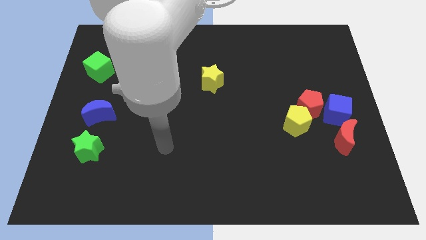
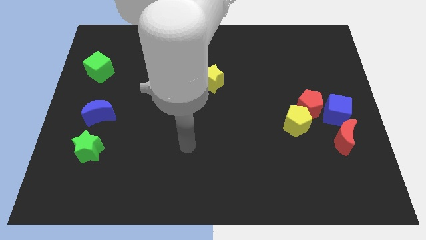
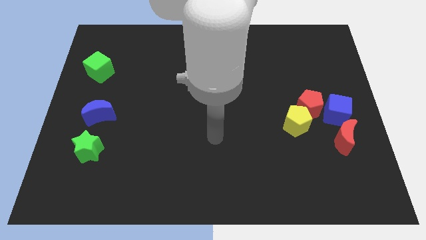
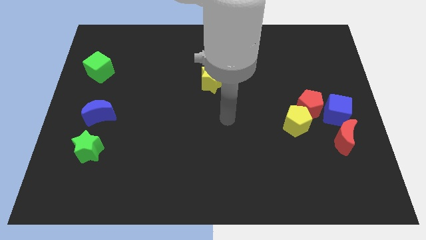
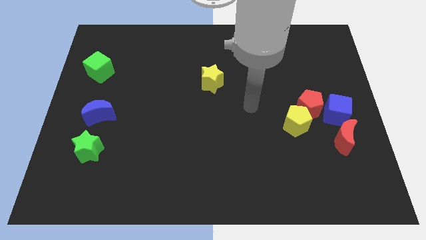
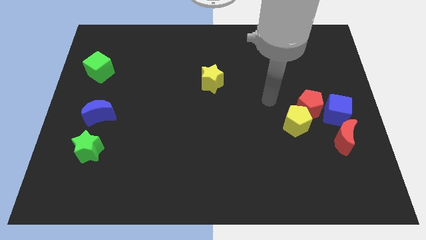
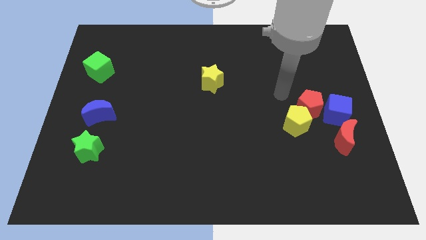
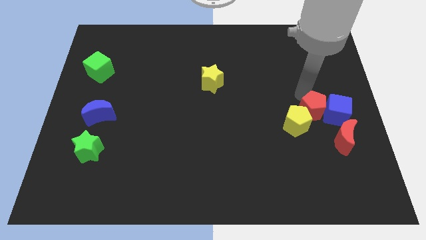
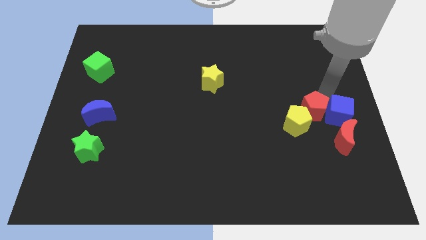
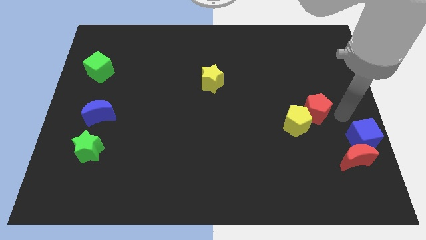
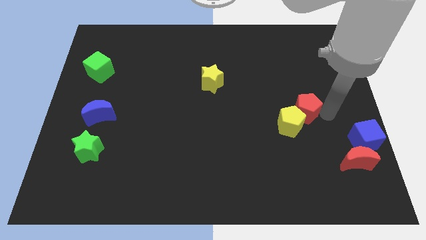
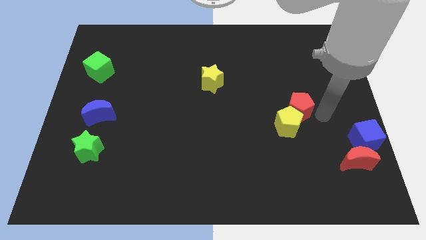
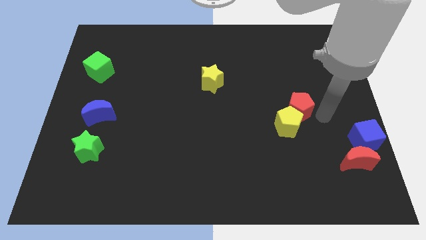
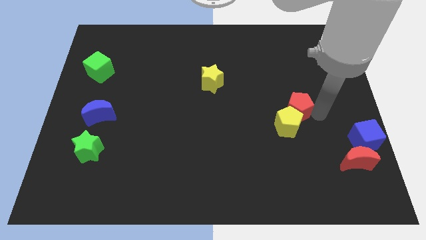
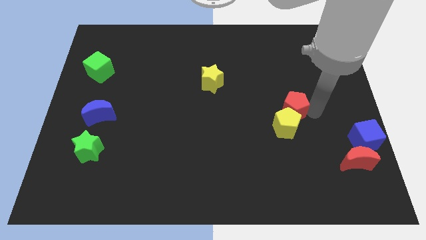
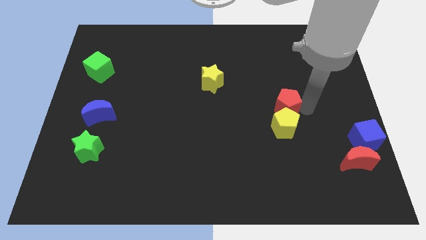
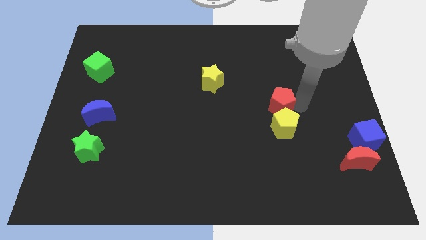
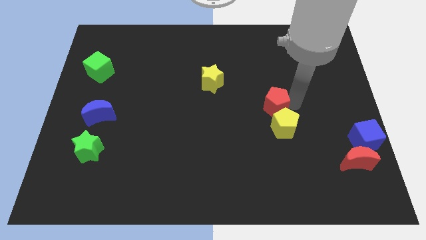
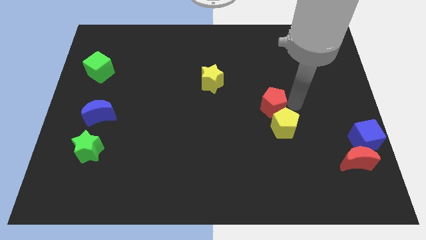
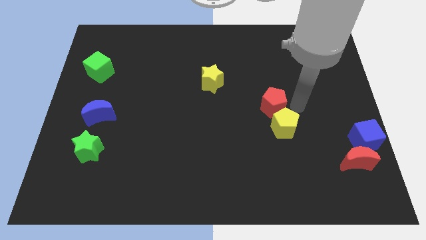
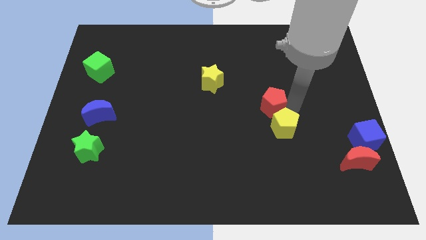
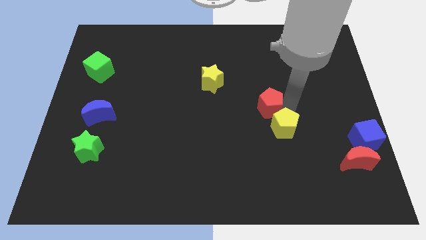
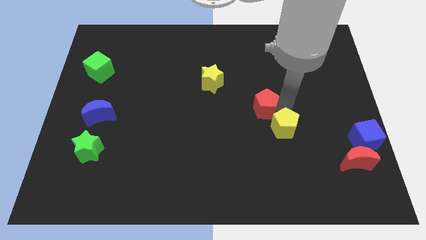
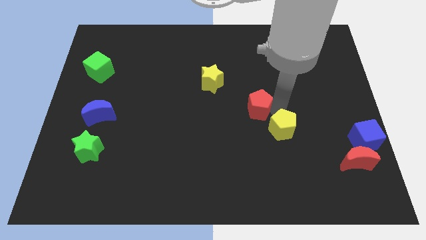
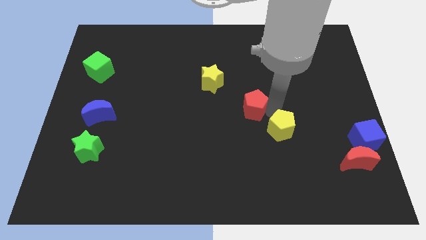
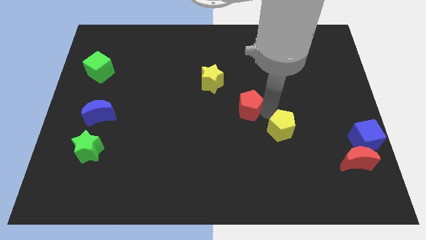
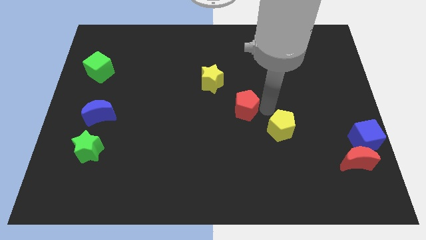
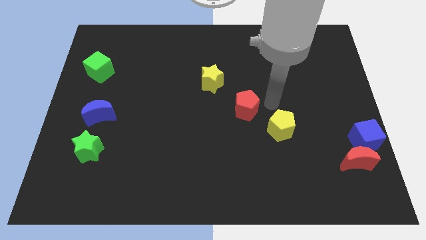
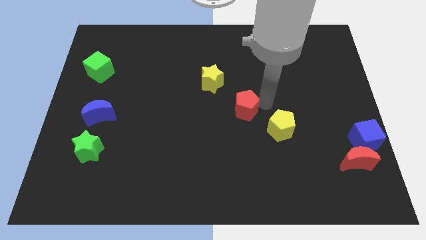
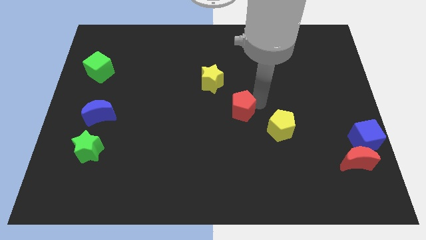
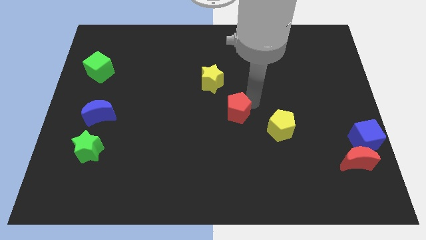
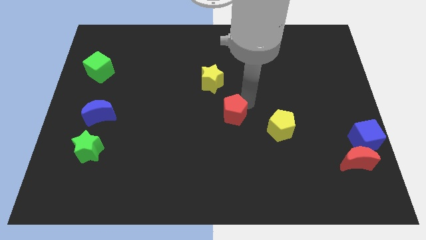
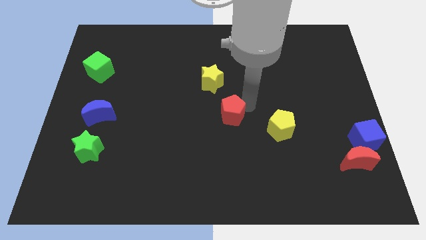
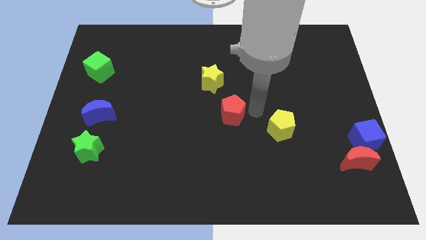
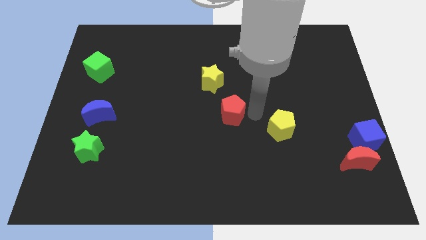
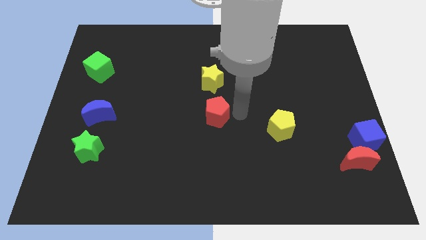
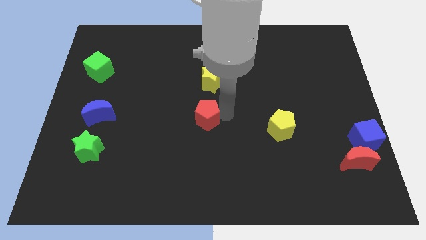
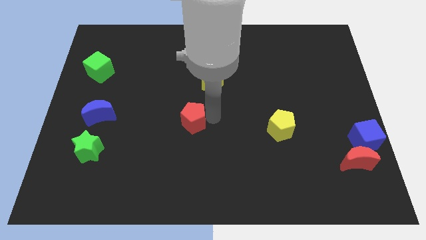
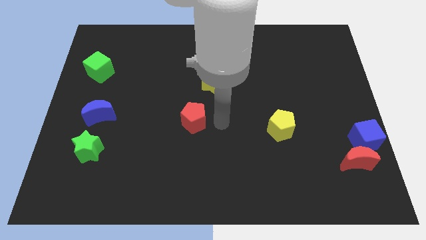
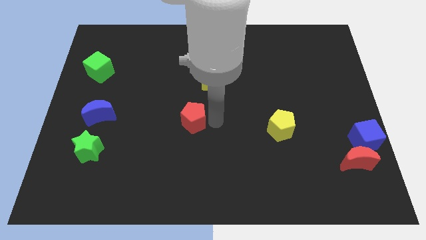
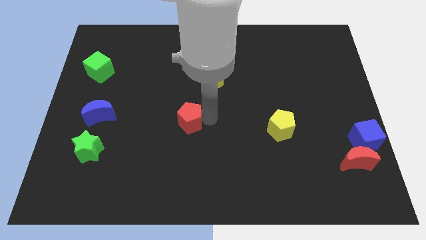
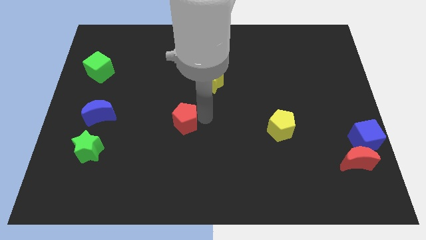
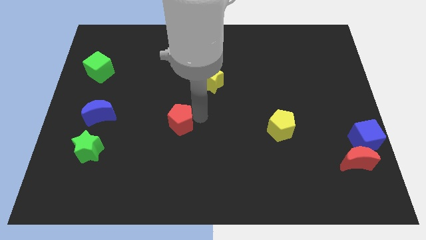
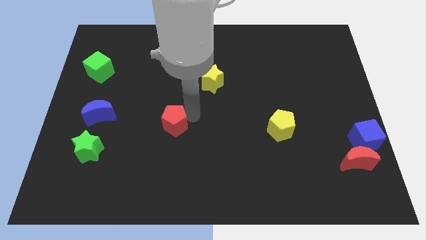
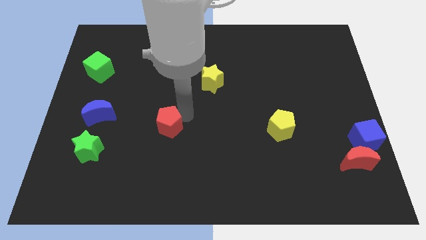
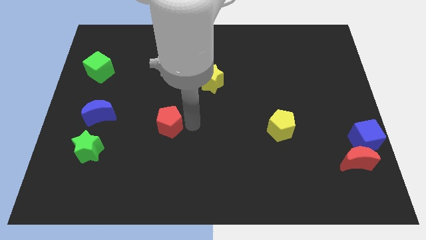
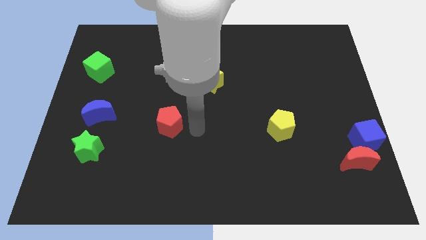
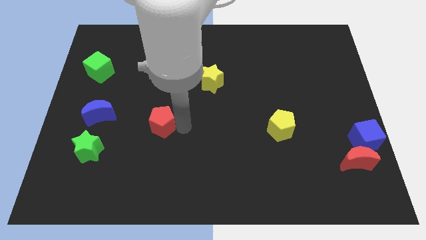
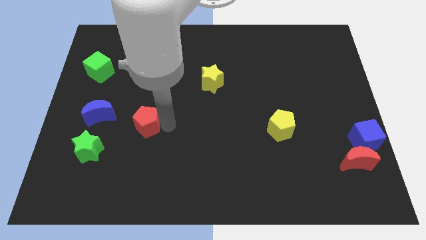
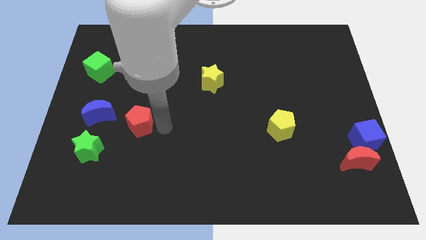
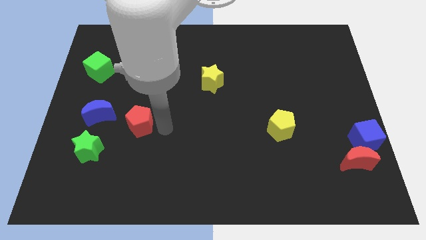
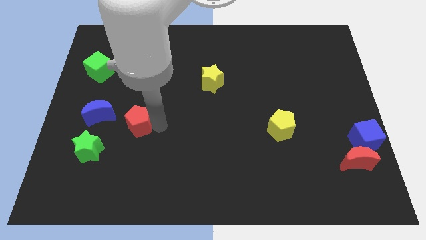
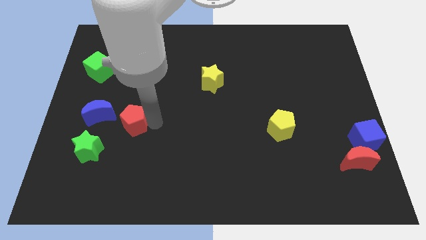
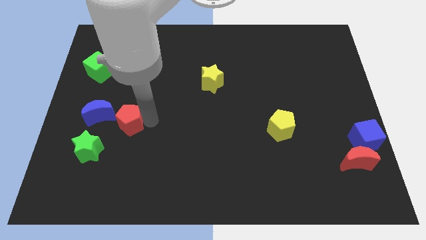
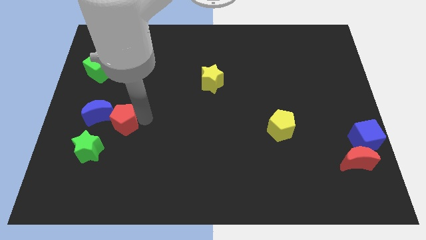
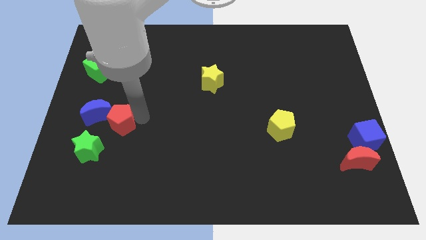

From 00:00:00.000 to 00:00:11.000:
move the red pentagon next to the blue moon

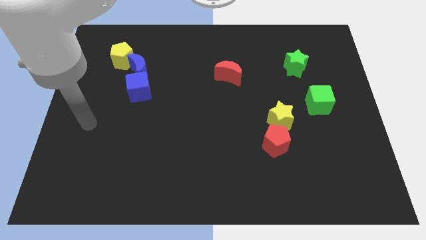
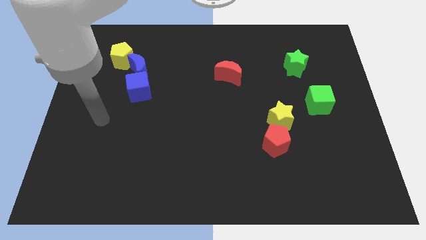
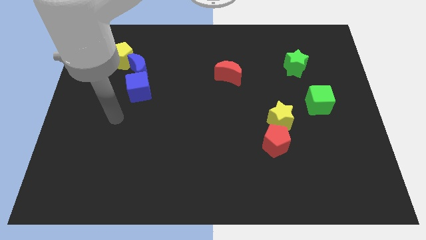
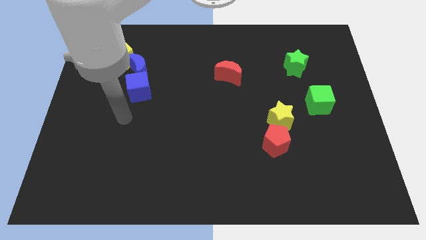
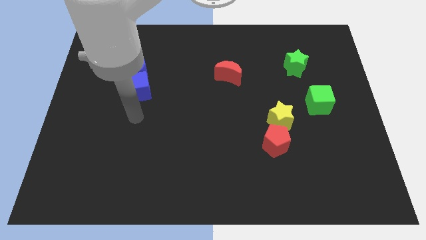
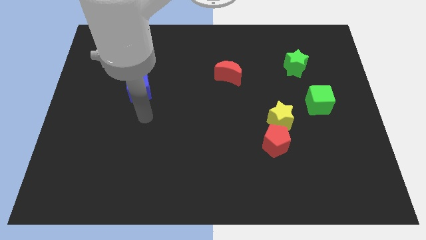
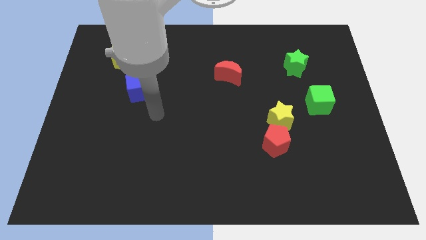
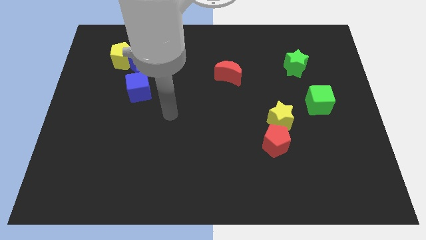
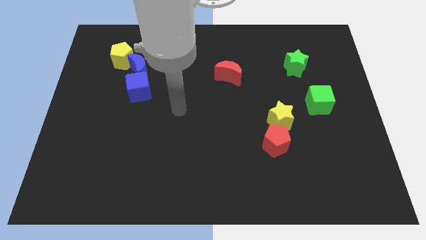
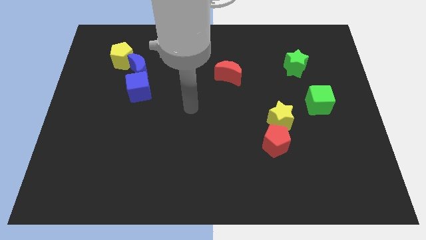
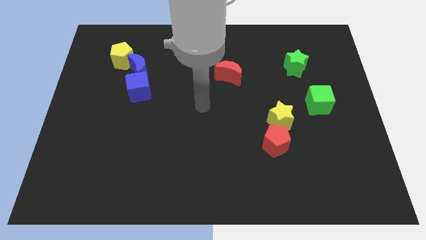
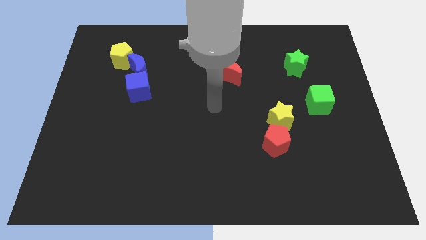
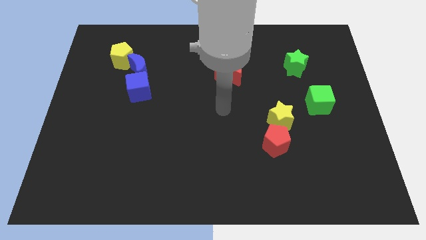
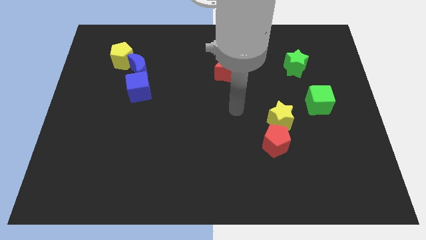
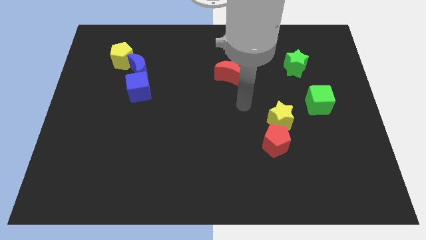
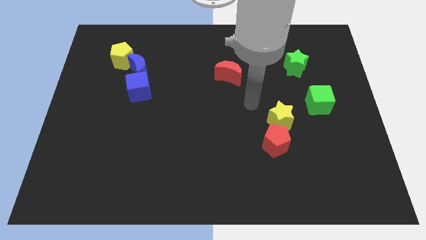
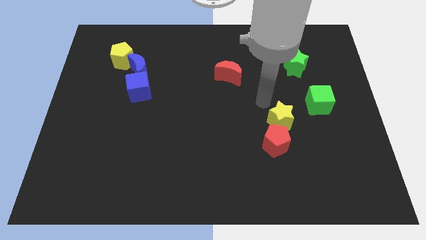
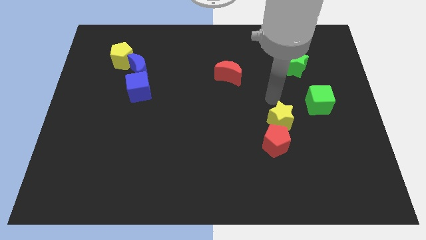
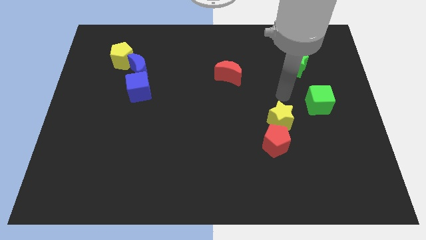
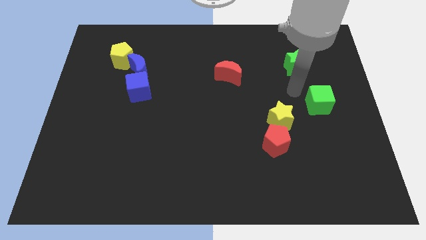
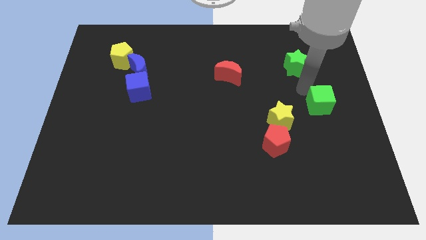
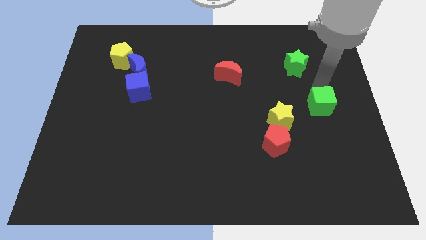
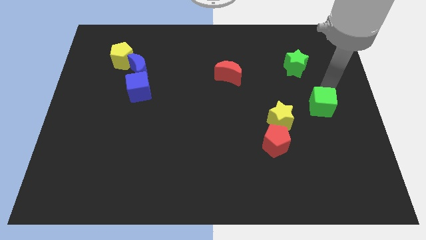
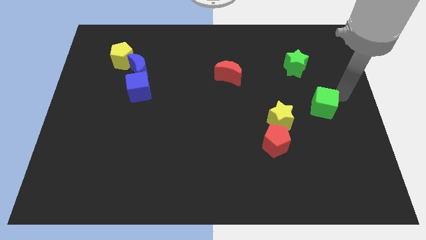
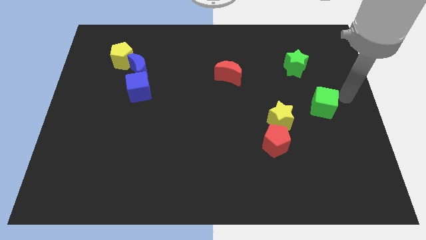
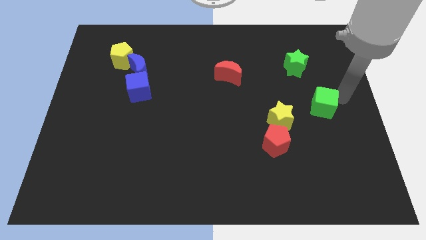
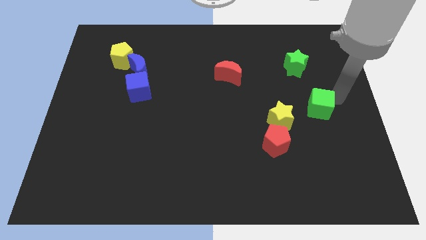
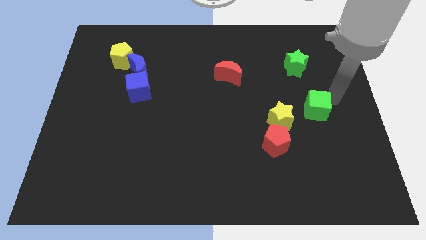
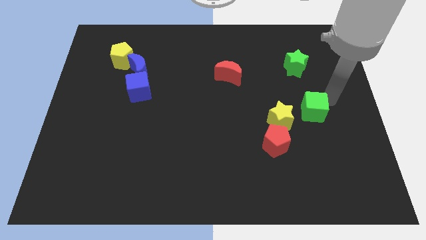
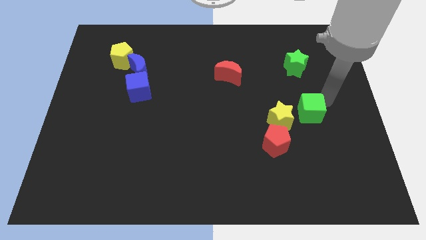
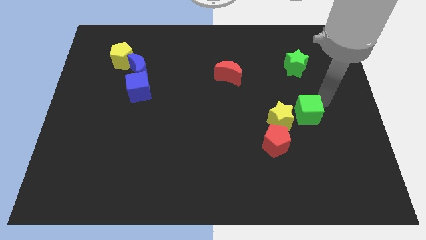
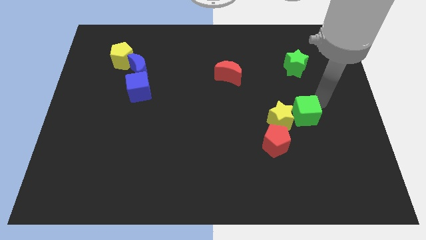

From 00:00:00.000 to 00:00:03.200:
push the green cube towards the yellow star
